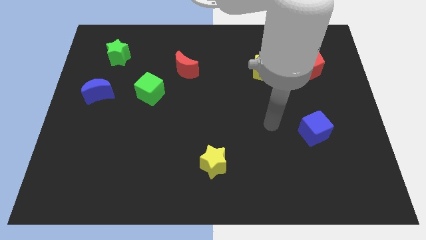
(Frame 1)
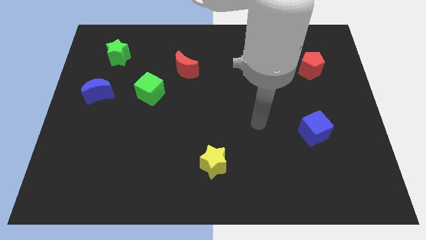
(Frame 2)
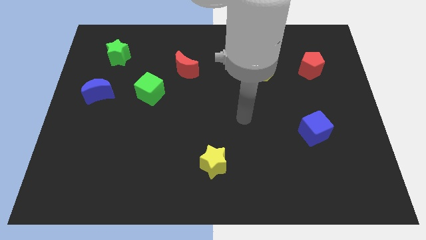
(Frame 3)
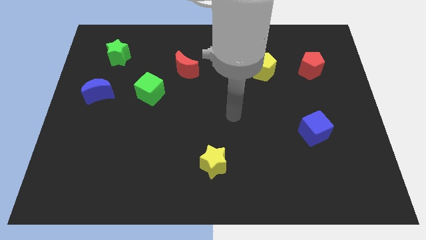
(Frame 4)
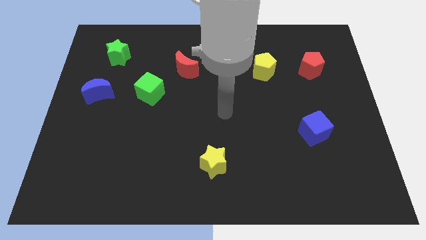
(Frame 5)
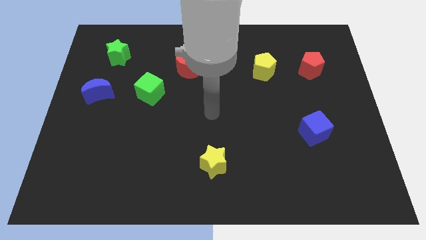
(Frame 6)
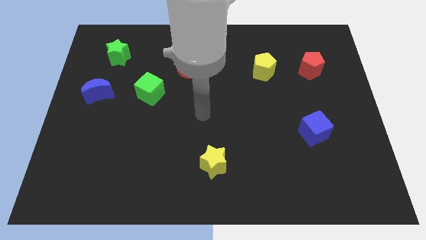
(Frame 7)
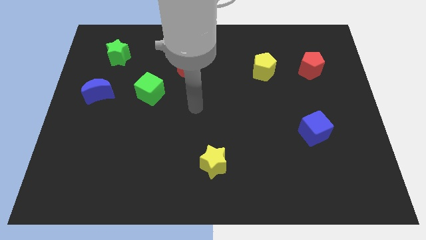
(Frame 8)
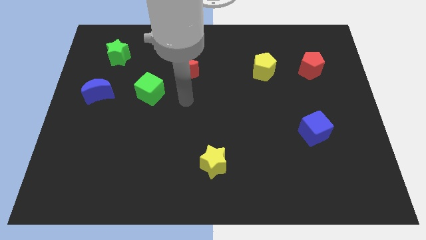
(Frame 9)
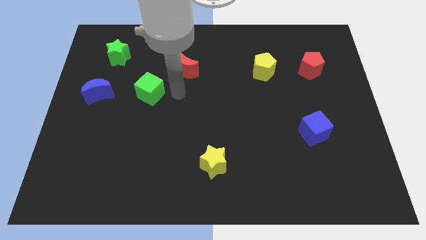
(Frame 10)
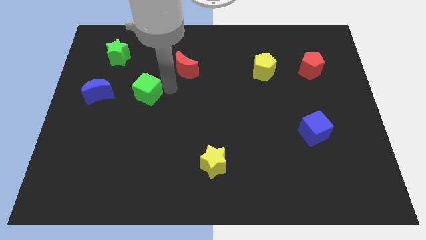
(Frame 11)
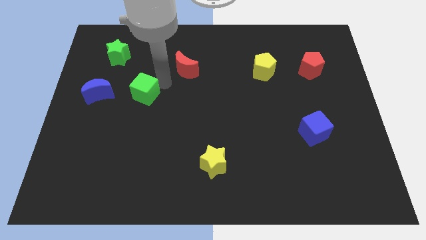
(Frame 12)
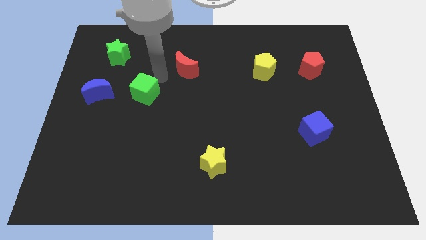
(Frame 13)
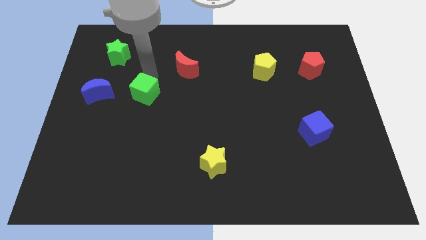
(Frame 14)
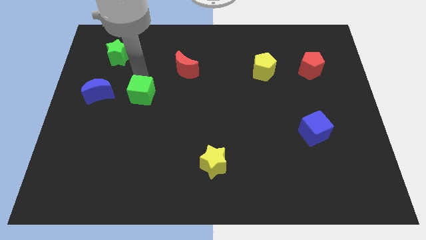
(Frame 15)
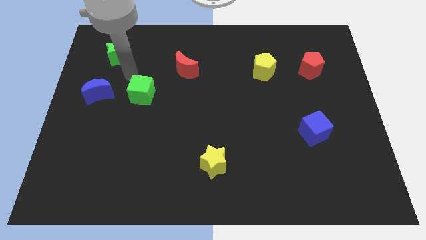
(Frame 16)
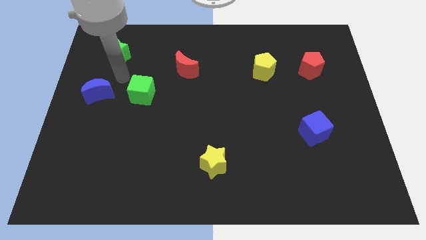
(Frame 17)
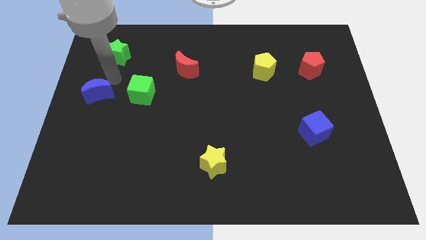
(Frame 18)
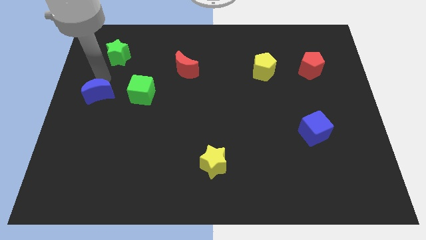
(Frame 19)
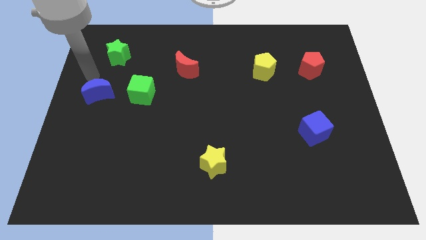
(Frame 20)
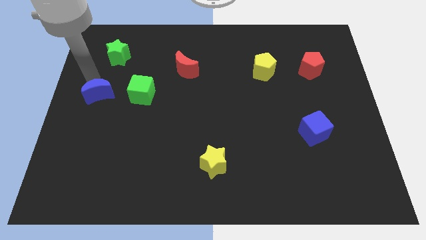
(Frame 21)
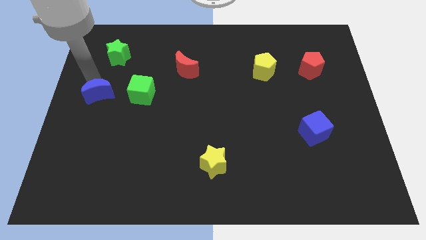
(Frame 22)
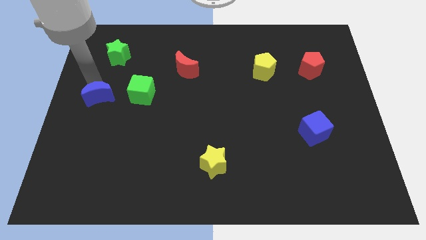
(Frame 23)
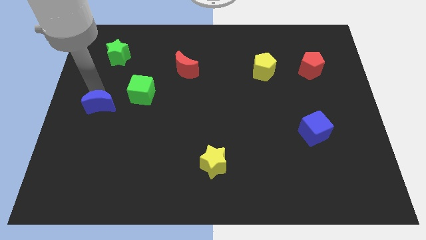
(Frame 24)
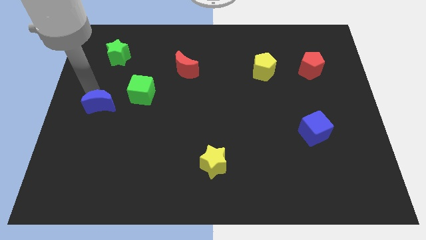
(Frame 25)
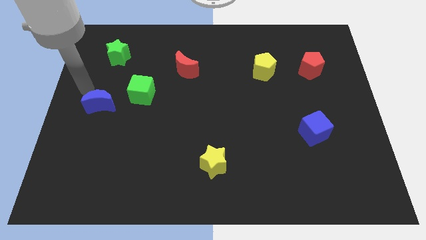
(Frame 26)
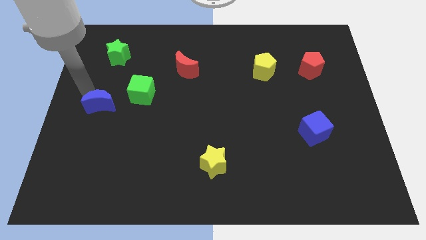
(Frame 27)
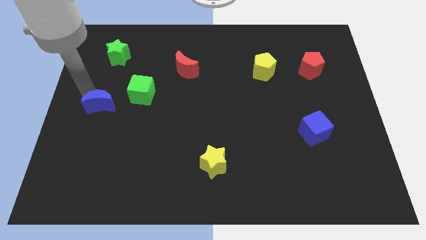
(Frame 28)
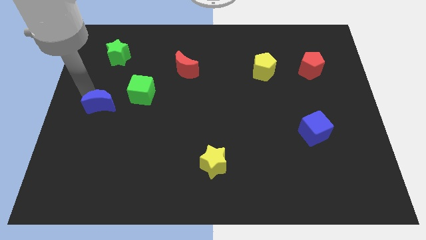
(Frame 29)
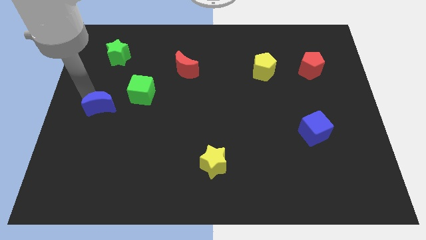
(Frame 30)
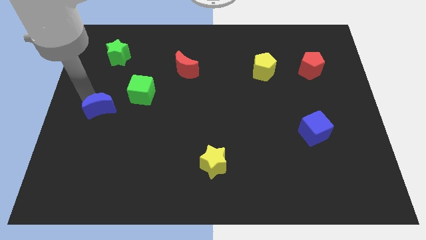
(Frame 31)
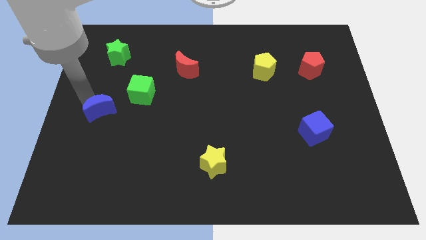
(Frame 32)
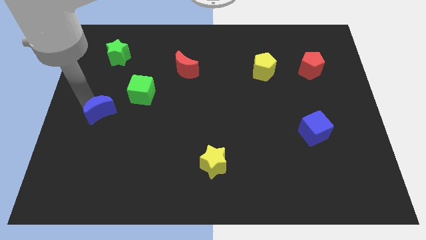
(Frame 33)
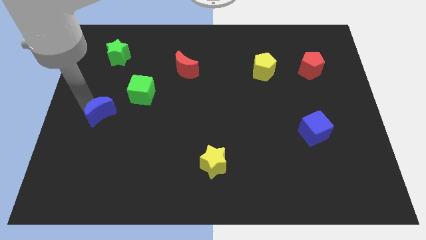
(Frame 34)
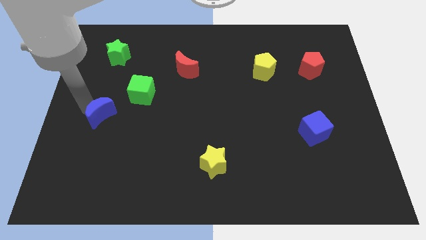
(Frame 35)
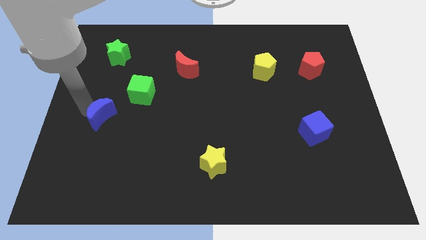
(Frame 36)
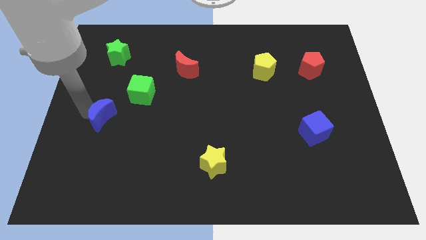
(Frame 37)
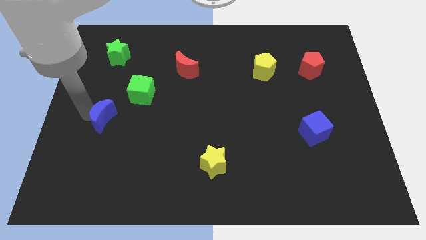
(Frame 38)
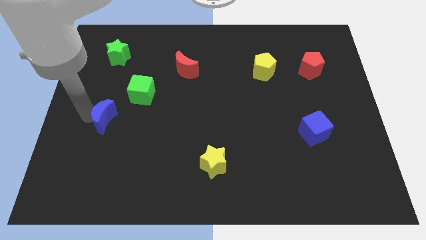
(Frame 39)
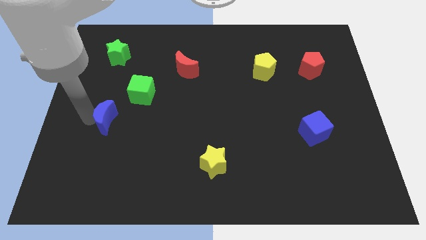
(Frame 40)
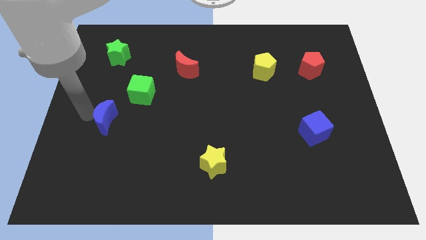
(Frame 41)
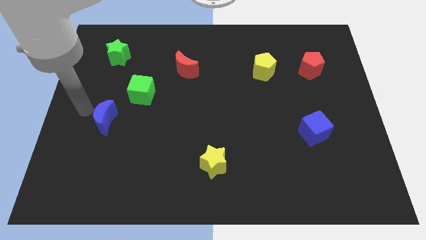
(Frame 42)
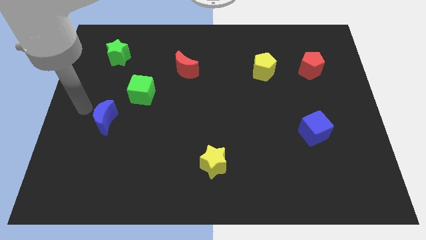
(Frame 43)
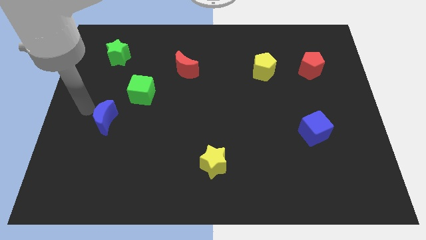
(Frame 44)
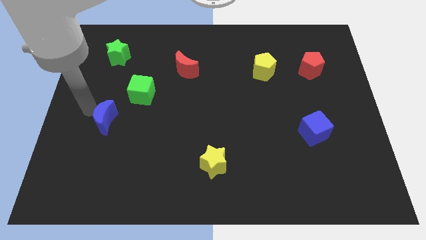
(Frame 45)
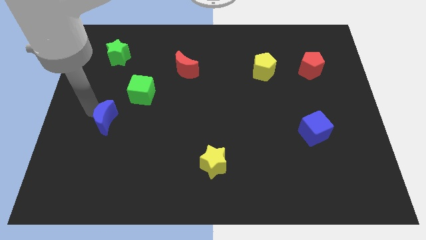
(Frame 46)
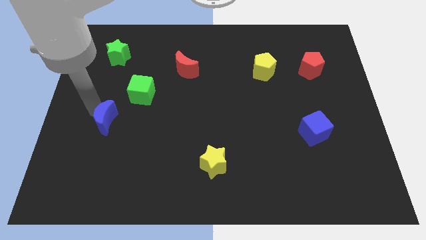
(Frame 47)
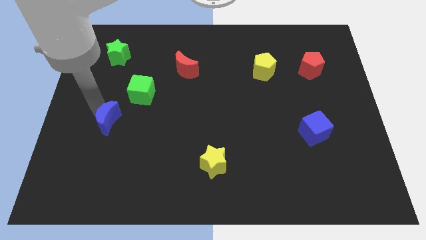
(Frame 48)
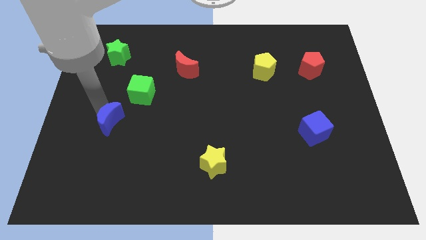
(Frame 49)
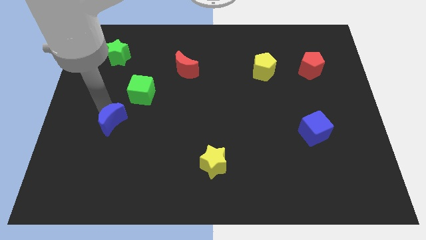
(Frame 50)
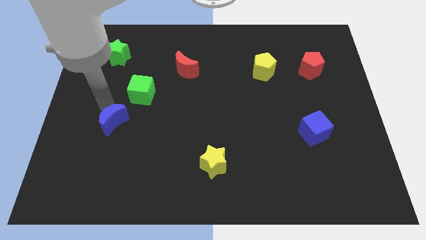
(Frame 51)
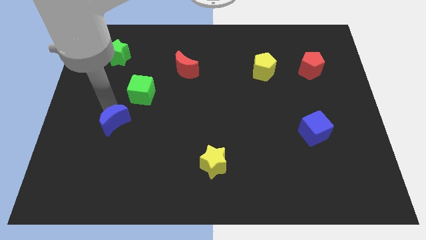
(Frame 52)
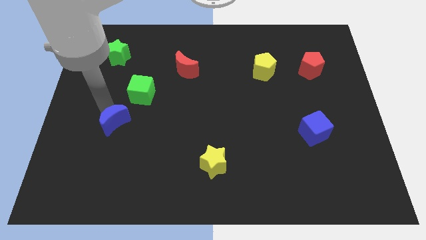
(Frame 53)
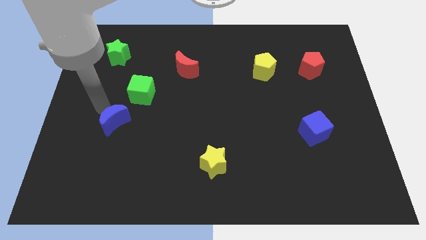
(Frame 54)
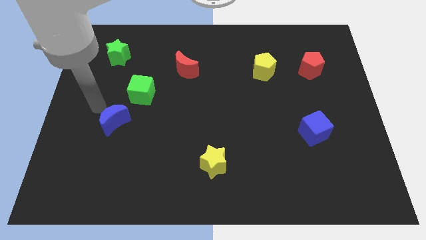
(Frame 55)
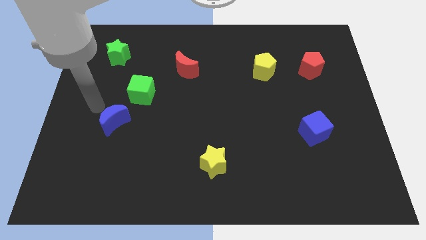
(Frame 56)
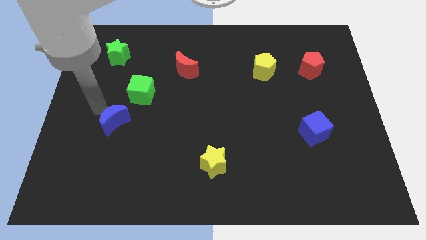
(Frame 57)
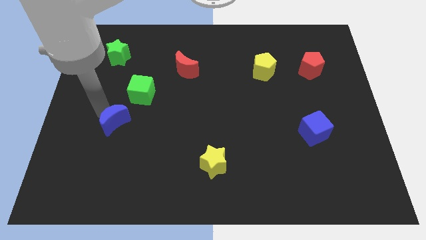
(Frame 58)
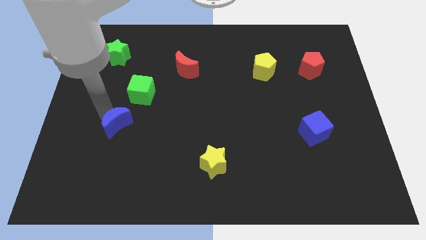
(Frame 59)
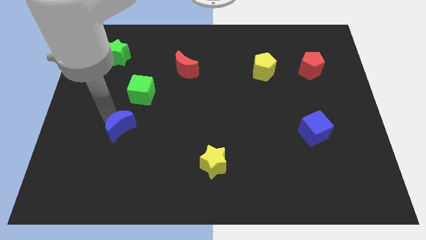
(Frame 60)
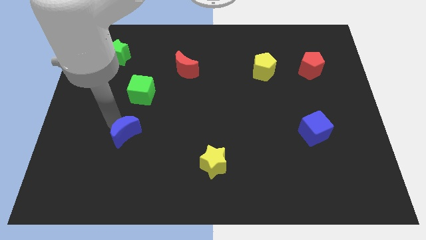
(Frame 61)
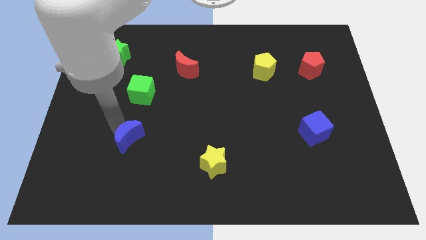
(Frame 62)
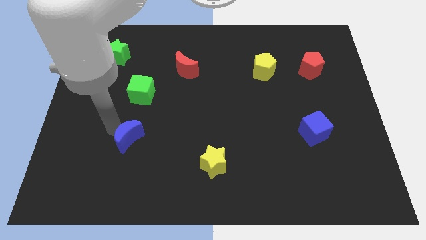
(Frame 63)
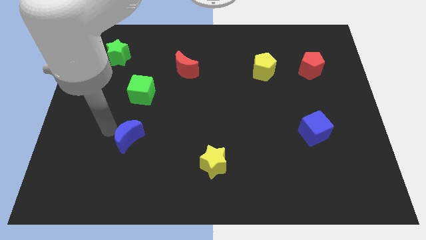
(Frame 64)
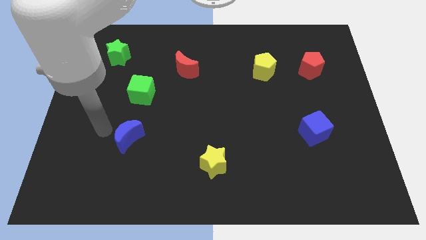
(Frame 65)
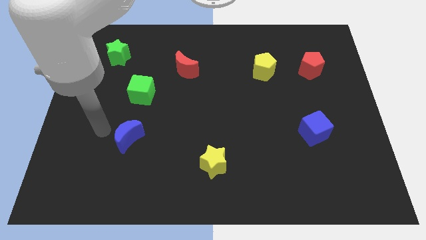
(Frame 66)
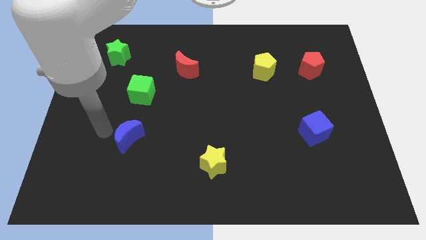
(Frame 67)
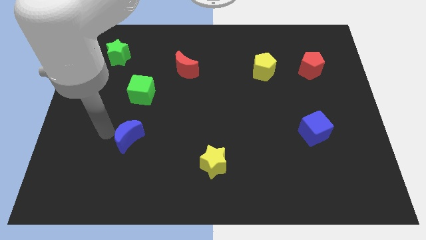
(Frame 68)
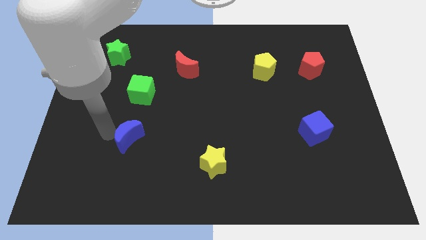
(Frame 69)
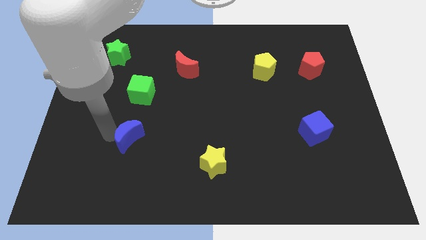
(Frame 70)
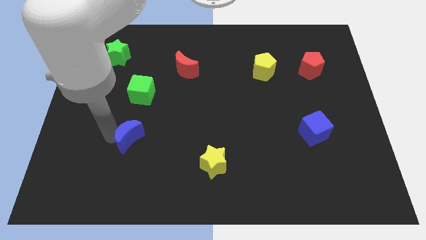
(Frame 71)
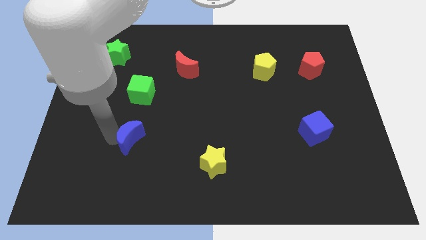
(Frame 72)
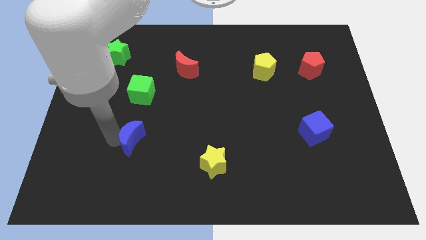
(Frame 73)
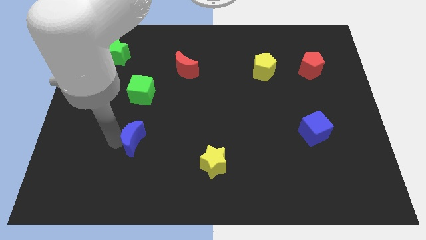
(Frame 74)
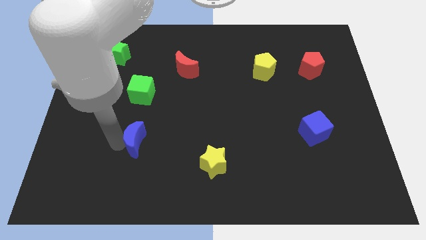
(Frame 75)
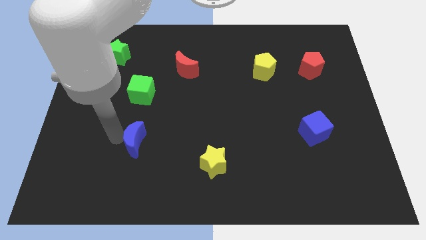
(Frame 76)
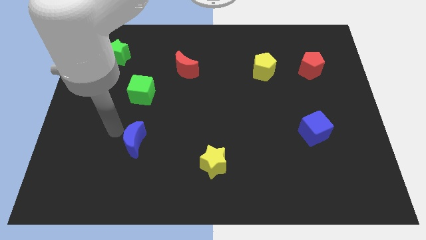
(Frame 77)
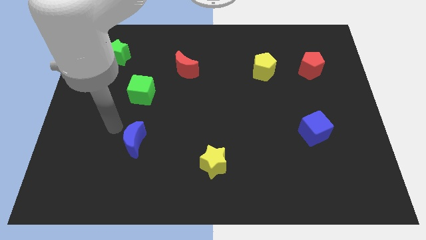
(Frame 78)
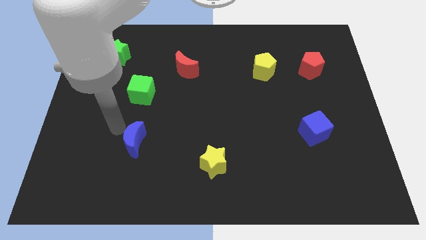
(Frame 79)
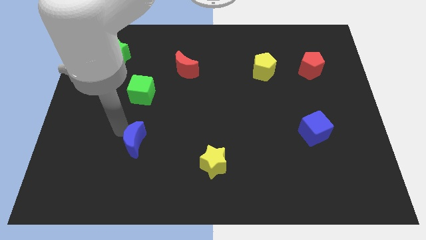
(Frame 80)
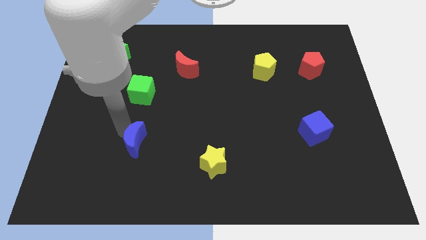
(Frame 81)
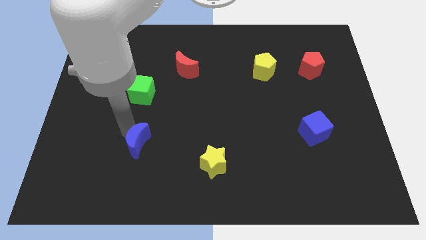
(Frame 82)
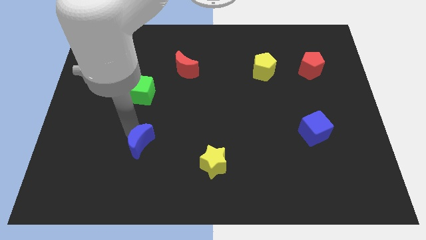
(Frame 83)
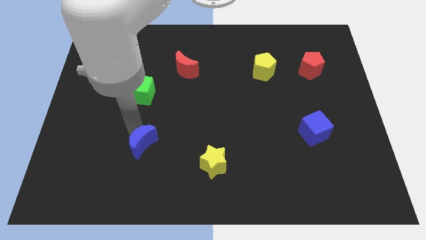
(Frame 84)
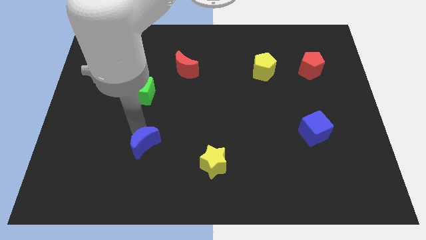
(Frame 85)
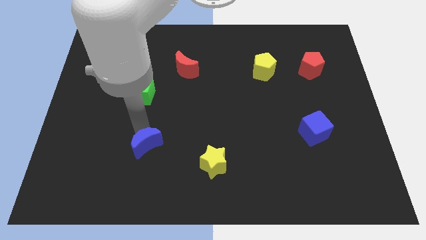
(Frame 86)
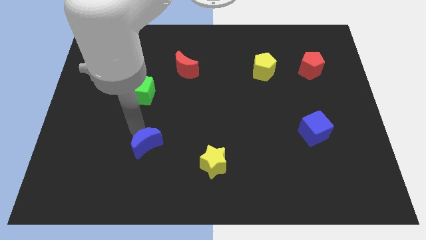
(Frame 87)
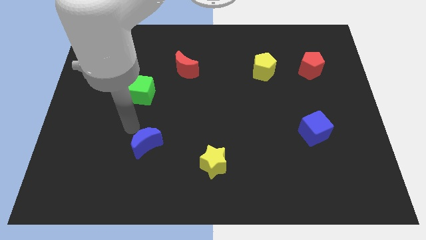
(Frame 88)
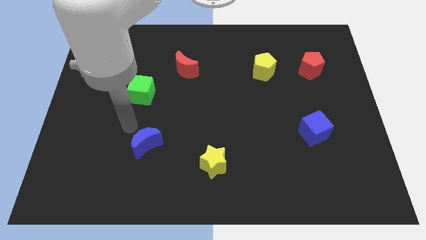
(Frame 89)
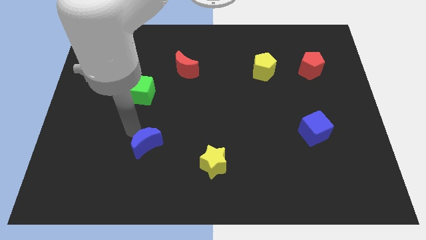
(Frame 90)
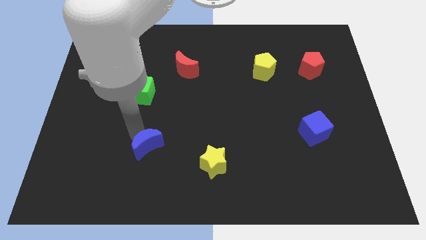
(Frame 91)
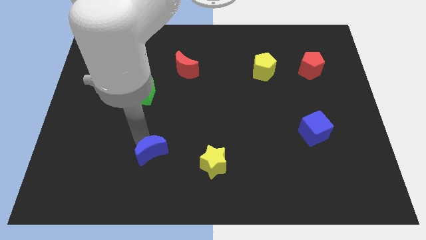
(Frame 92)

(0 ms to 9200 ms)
put the blue moon just left of the yellow star
